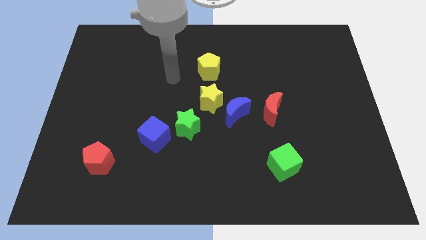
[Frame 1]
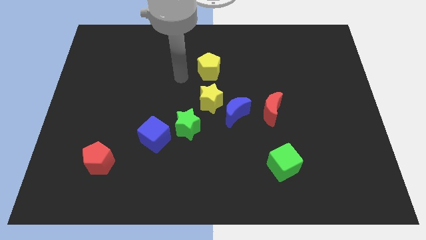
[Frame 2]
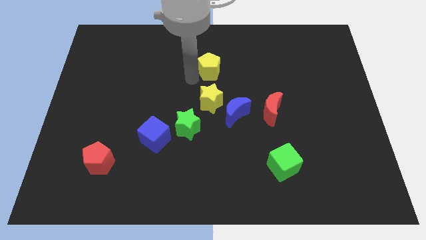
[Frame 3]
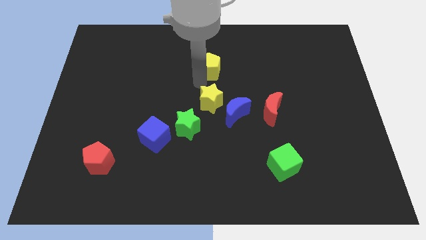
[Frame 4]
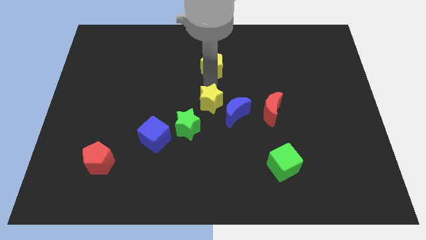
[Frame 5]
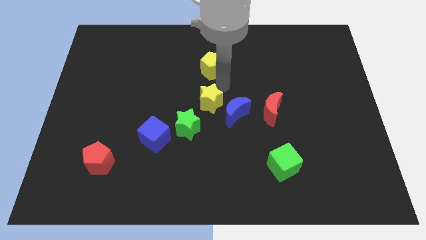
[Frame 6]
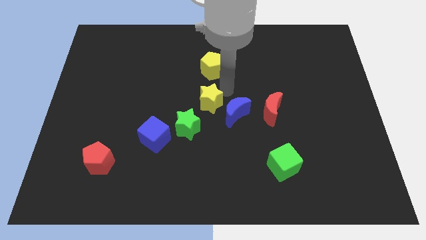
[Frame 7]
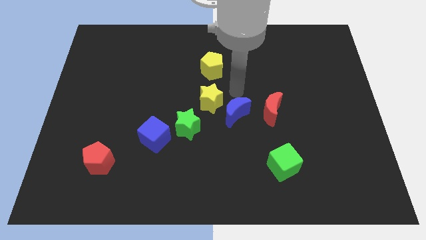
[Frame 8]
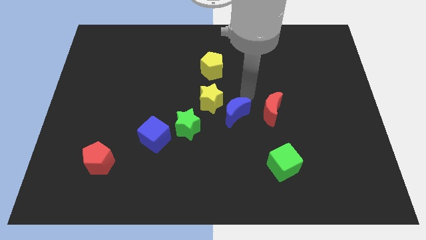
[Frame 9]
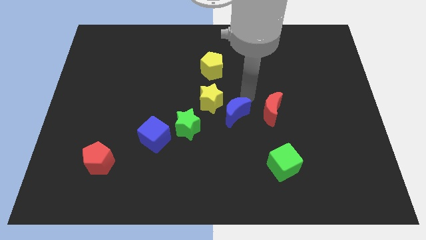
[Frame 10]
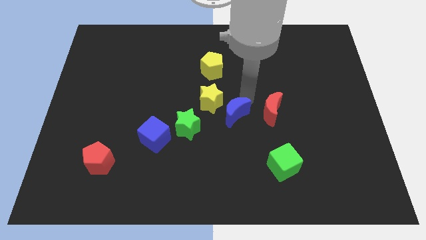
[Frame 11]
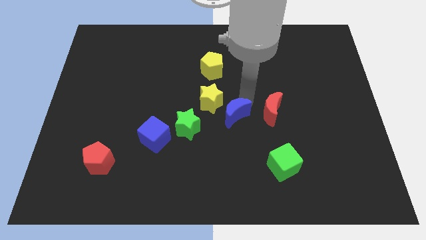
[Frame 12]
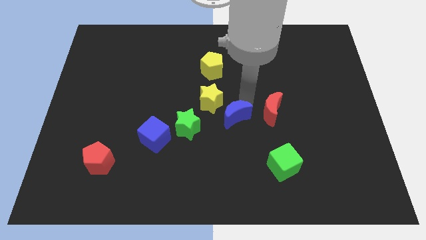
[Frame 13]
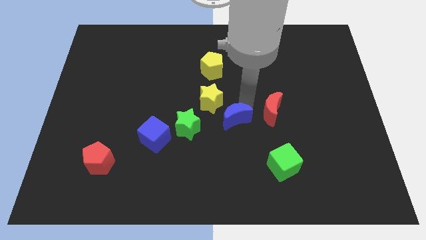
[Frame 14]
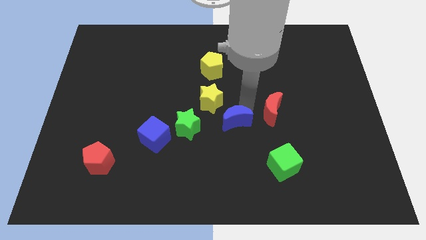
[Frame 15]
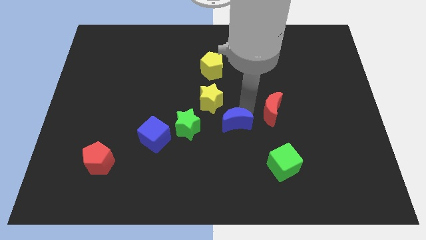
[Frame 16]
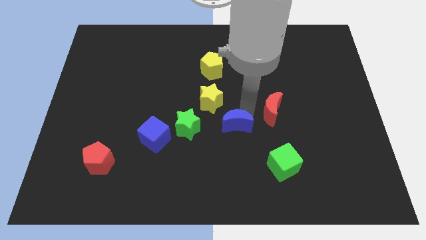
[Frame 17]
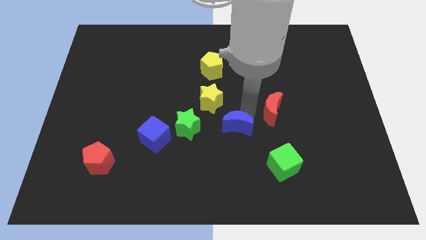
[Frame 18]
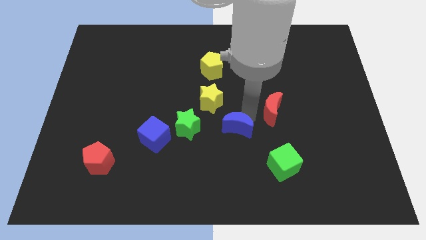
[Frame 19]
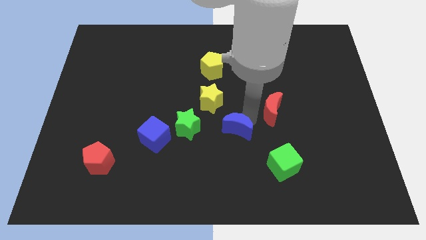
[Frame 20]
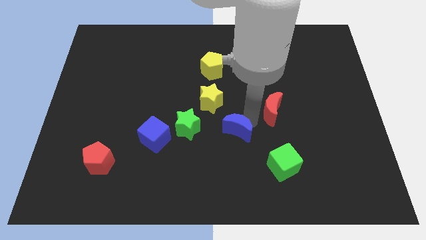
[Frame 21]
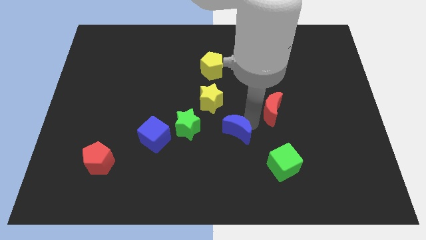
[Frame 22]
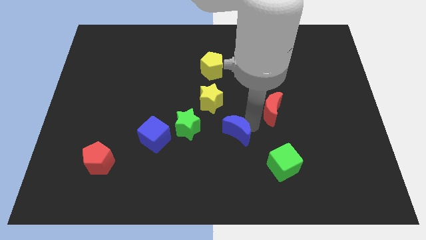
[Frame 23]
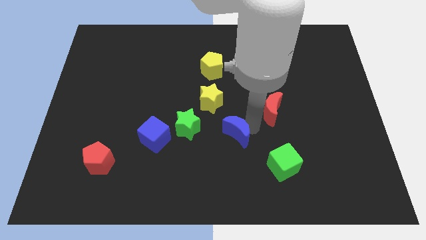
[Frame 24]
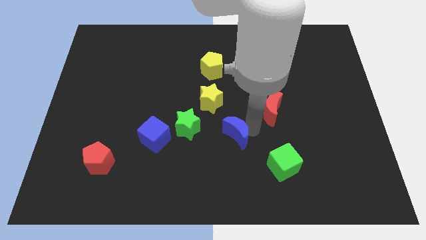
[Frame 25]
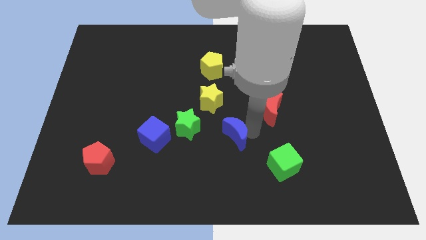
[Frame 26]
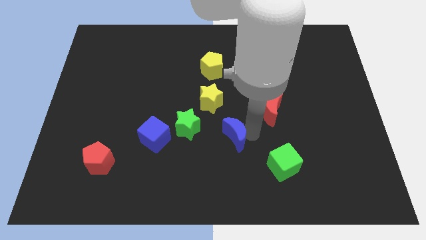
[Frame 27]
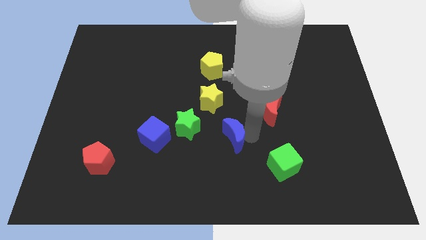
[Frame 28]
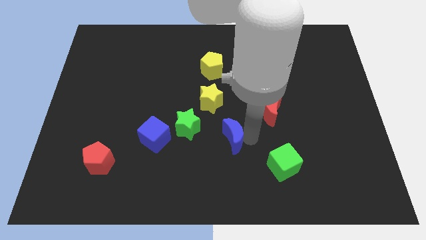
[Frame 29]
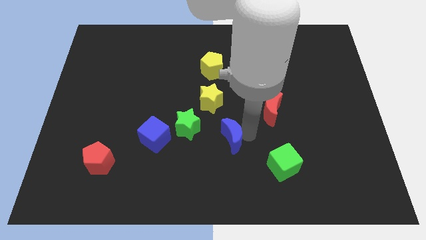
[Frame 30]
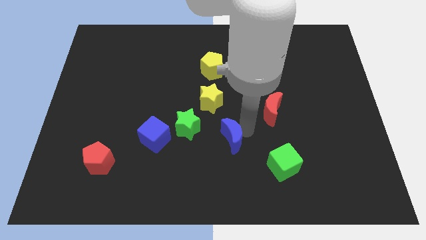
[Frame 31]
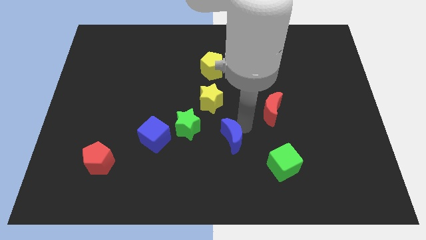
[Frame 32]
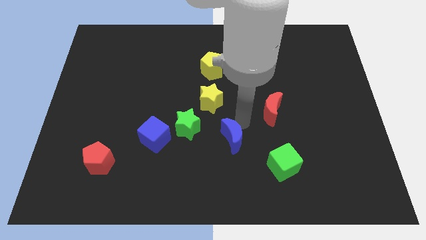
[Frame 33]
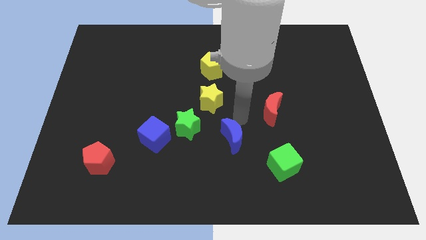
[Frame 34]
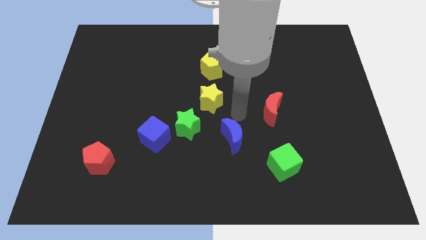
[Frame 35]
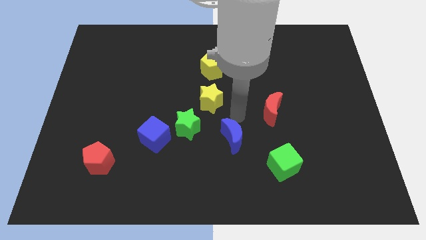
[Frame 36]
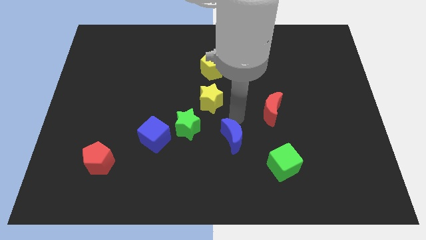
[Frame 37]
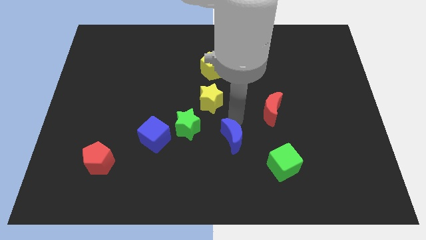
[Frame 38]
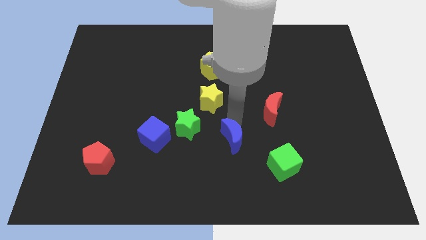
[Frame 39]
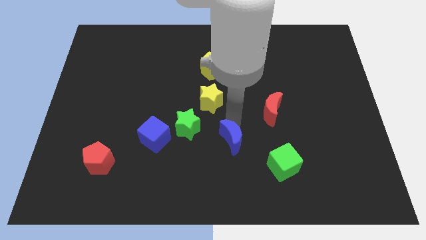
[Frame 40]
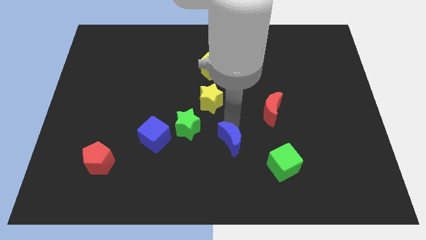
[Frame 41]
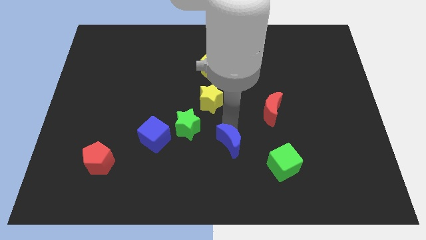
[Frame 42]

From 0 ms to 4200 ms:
move the blue moon away from the yellow star and red moon

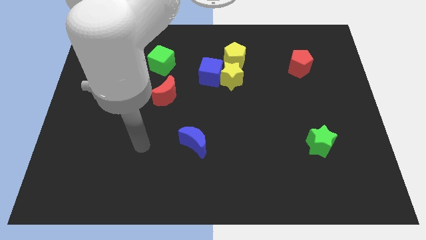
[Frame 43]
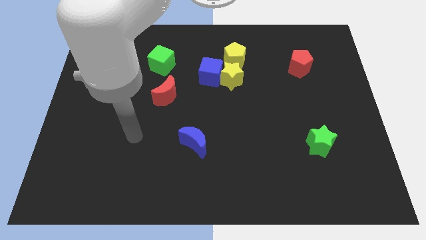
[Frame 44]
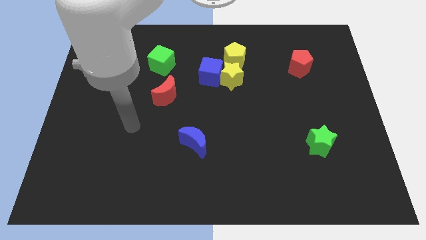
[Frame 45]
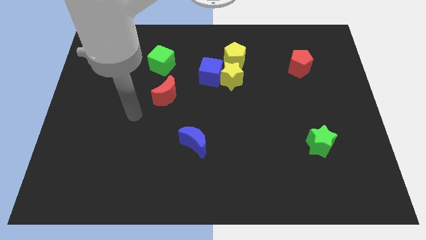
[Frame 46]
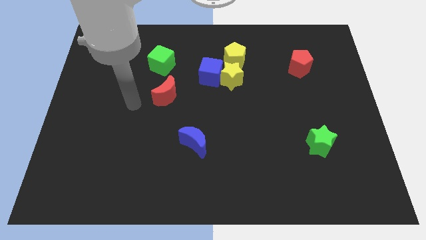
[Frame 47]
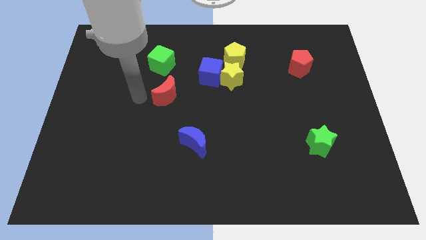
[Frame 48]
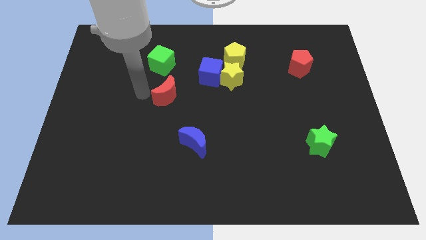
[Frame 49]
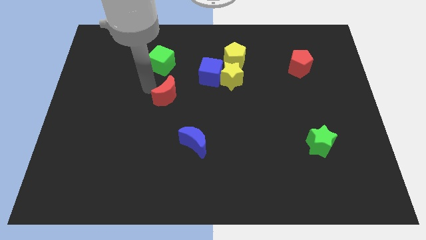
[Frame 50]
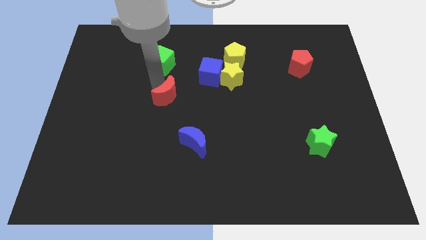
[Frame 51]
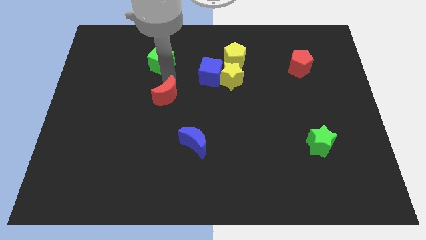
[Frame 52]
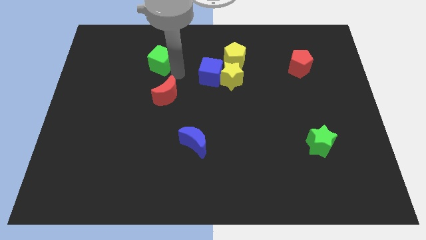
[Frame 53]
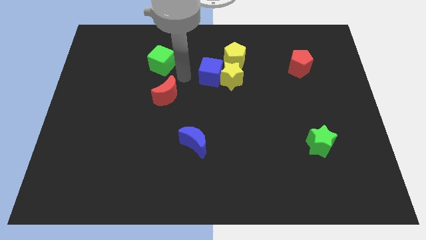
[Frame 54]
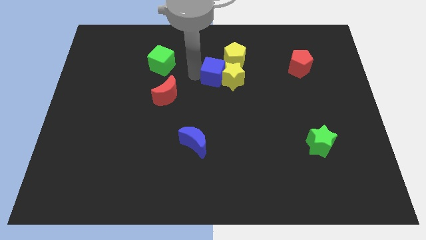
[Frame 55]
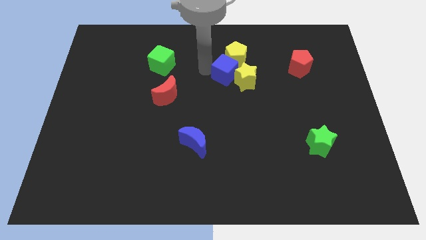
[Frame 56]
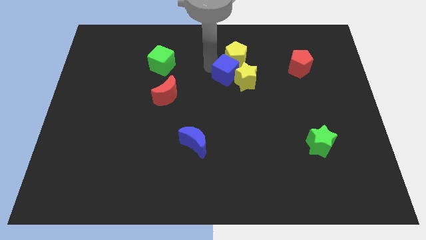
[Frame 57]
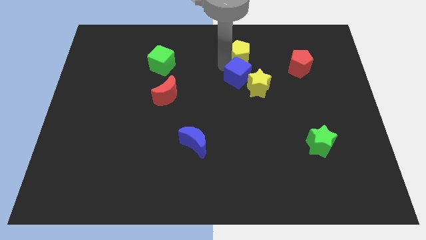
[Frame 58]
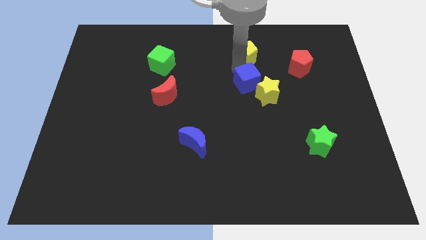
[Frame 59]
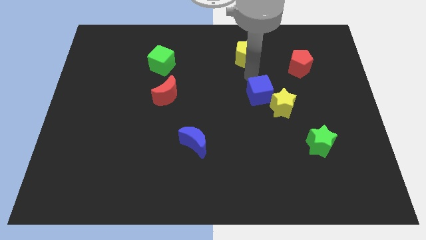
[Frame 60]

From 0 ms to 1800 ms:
move the yellow star away from the blue cube and yellow pentagon

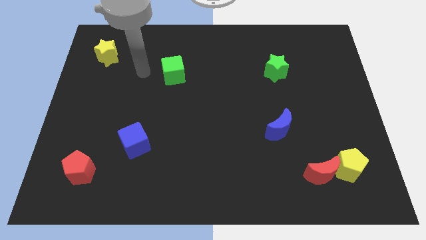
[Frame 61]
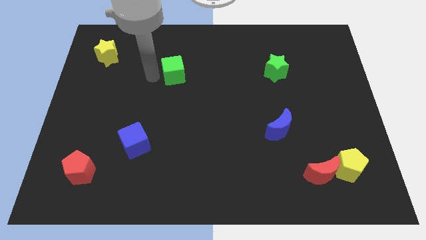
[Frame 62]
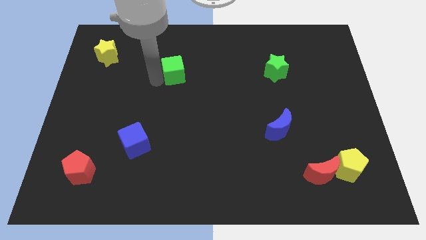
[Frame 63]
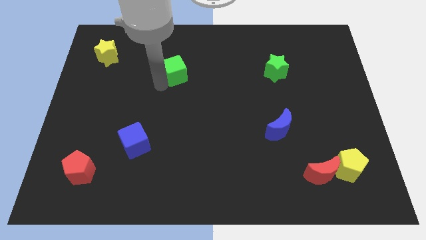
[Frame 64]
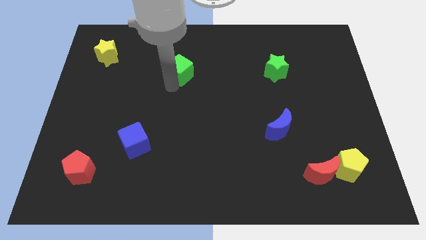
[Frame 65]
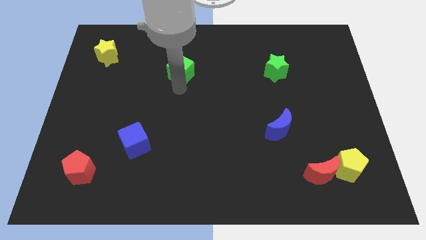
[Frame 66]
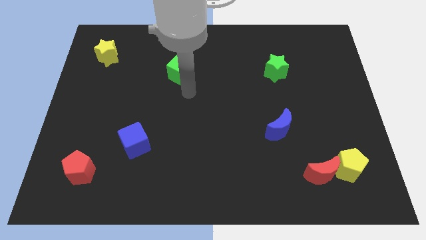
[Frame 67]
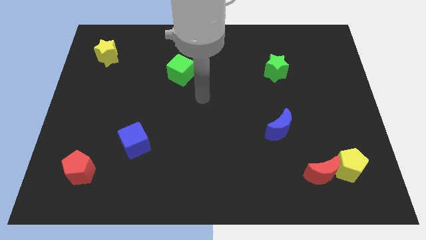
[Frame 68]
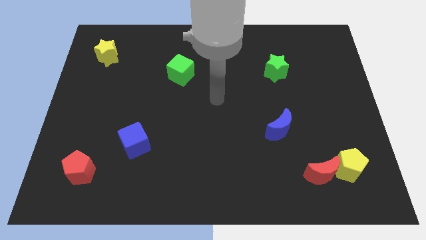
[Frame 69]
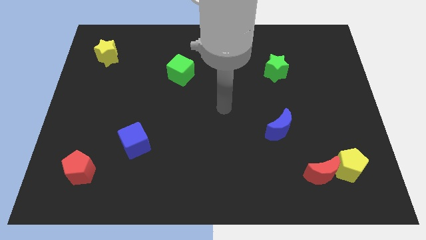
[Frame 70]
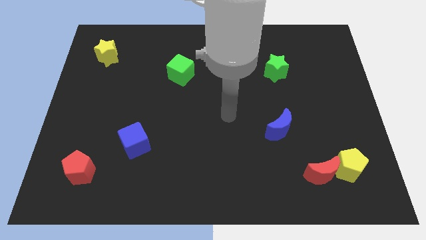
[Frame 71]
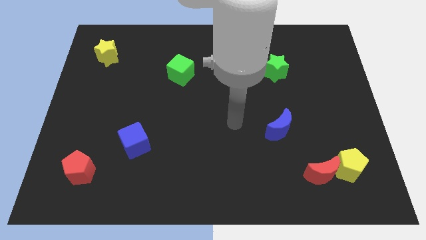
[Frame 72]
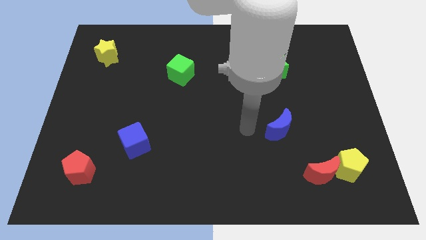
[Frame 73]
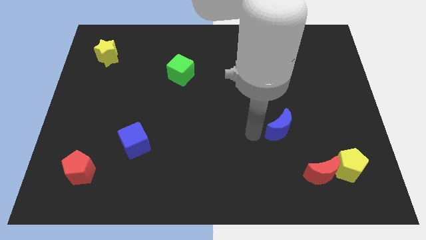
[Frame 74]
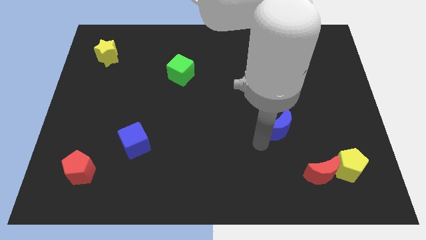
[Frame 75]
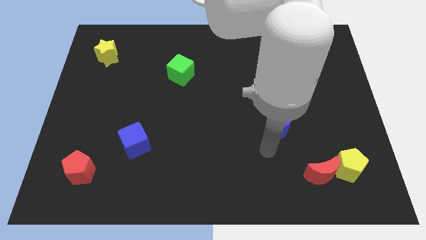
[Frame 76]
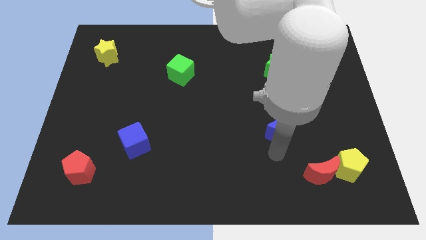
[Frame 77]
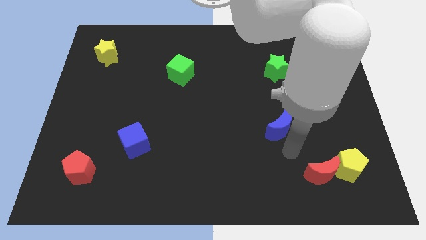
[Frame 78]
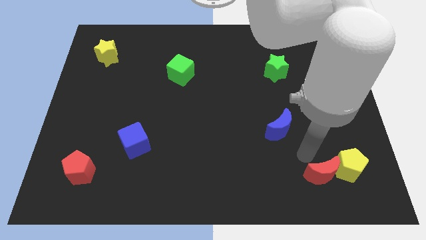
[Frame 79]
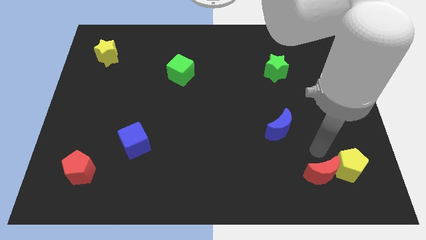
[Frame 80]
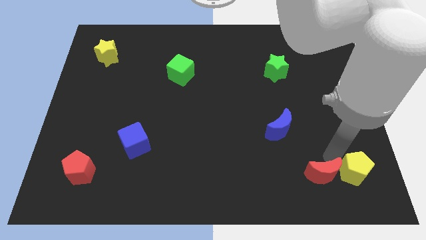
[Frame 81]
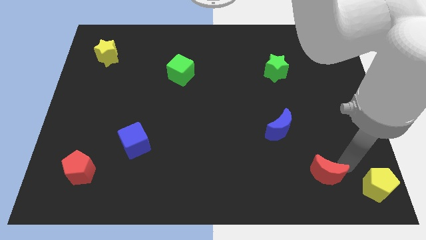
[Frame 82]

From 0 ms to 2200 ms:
pull the red moon apart from the yellow pentagon

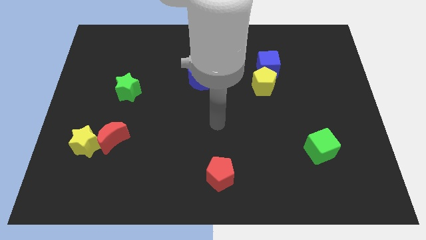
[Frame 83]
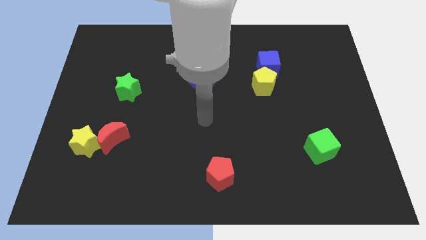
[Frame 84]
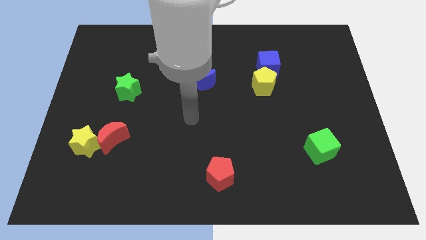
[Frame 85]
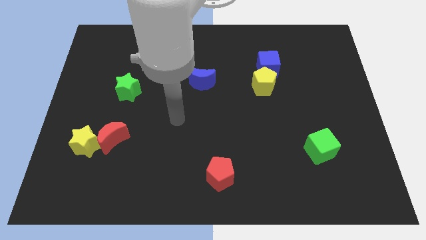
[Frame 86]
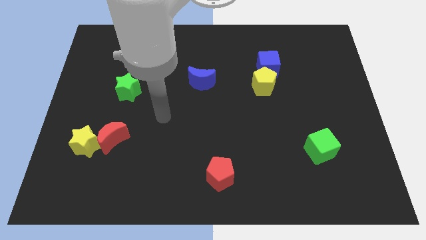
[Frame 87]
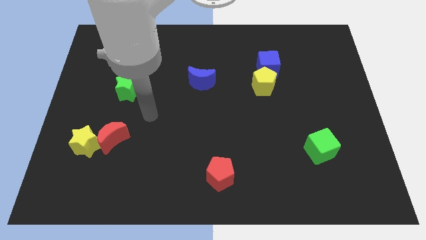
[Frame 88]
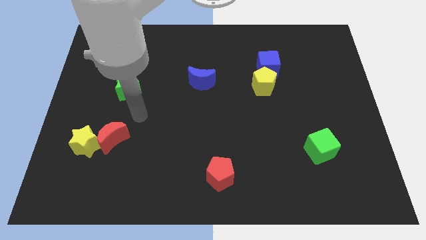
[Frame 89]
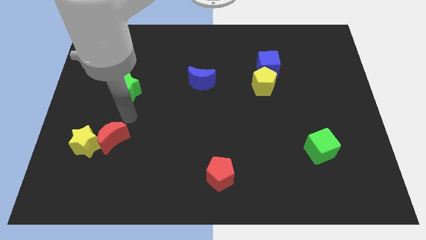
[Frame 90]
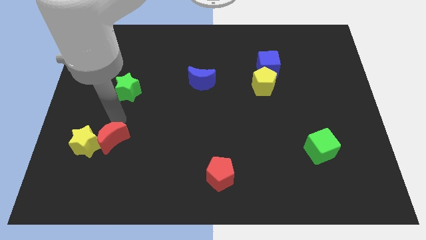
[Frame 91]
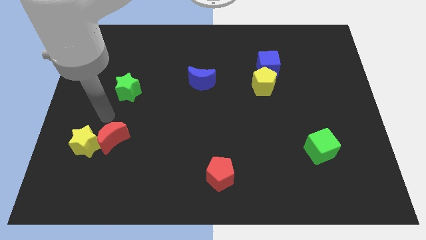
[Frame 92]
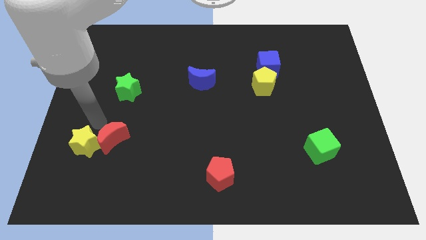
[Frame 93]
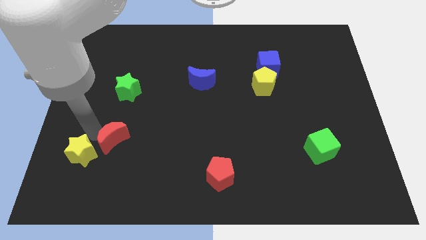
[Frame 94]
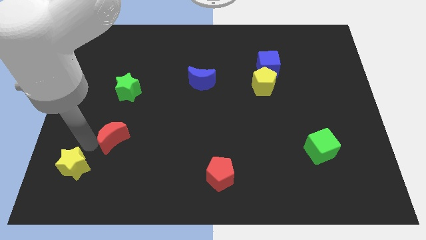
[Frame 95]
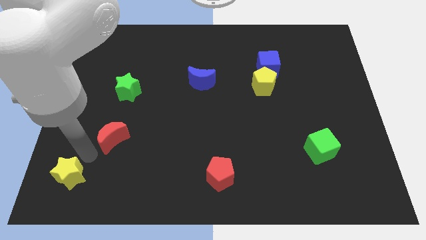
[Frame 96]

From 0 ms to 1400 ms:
move the red moon away from the yellow star
